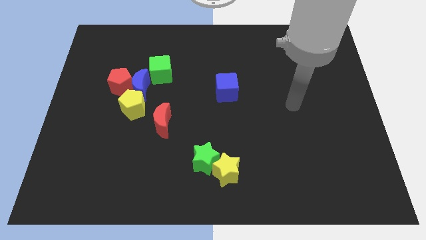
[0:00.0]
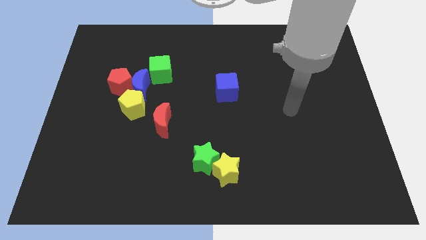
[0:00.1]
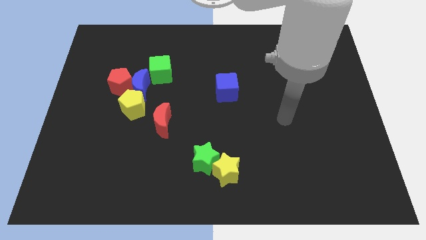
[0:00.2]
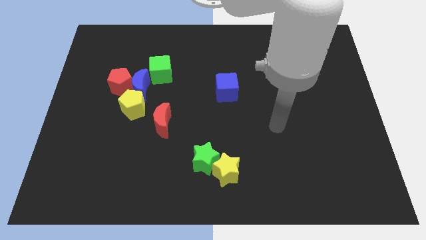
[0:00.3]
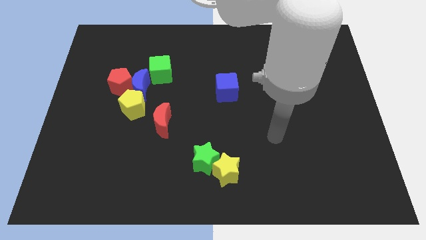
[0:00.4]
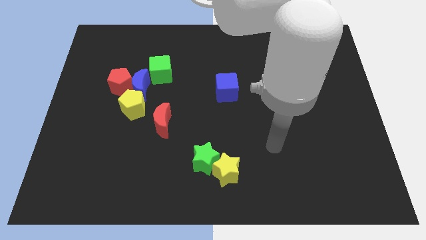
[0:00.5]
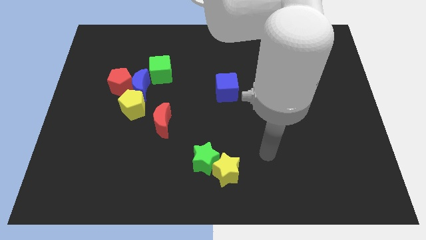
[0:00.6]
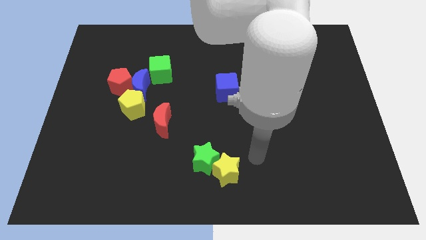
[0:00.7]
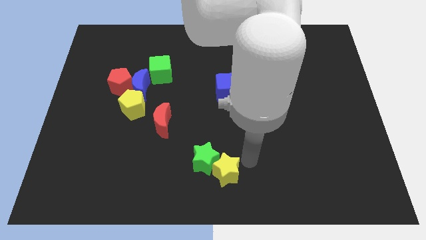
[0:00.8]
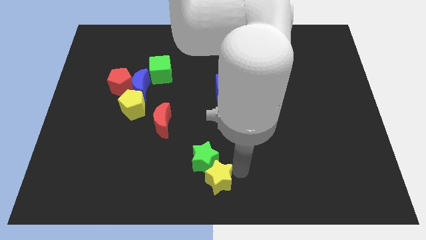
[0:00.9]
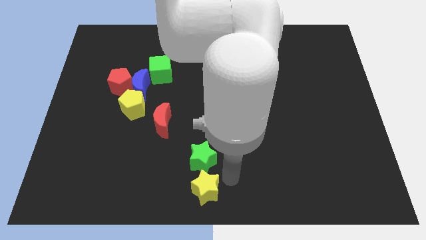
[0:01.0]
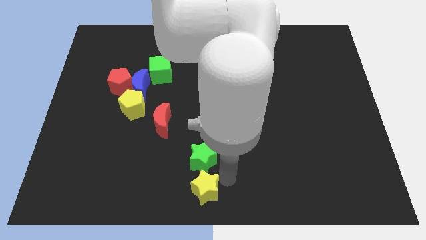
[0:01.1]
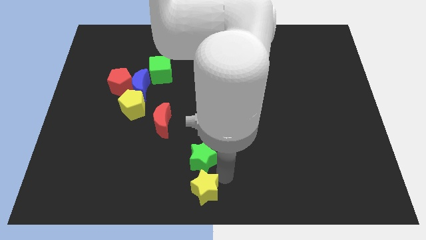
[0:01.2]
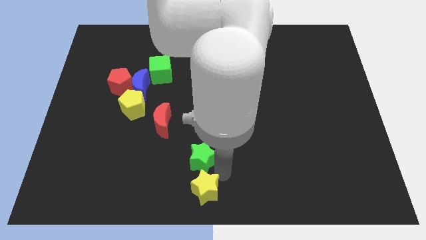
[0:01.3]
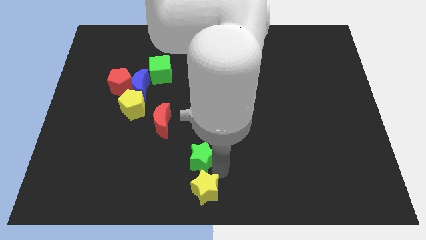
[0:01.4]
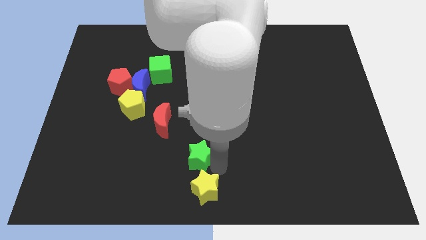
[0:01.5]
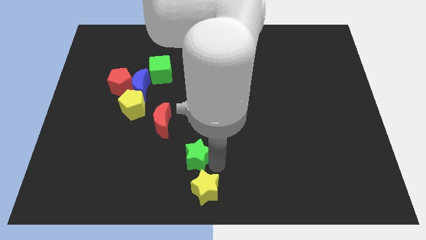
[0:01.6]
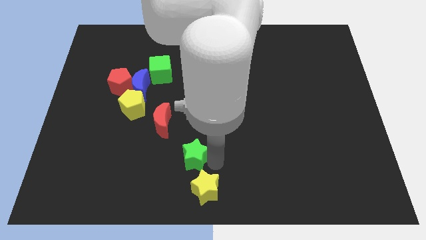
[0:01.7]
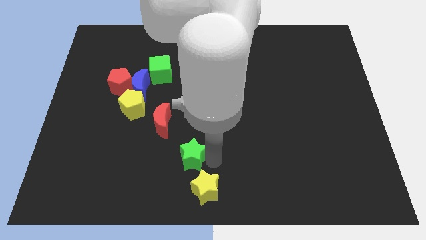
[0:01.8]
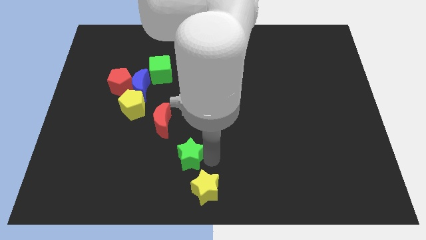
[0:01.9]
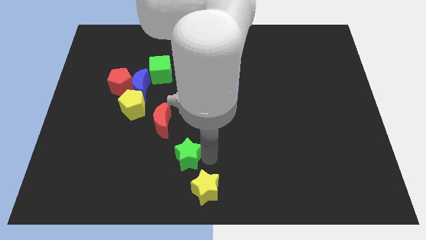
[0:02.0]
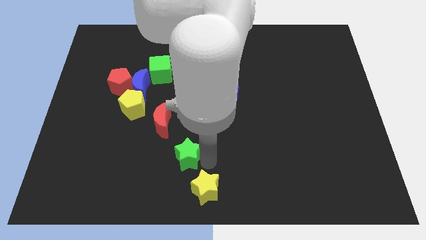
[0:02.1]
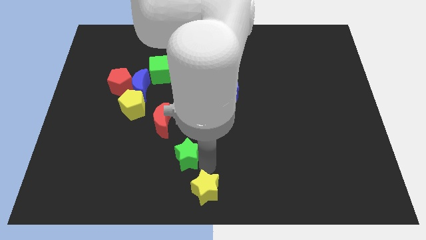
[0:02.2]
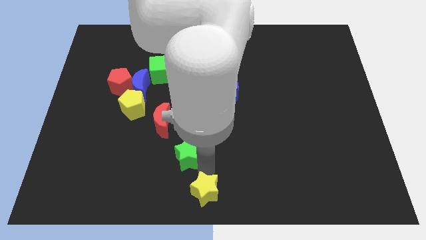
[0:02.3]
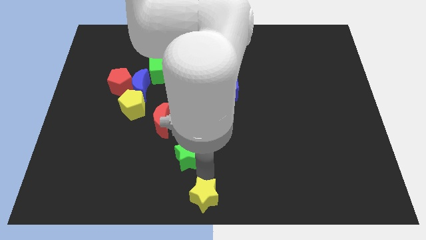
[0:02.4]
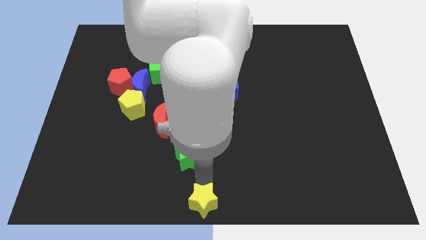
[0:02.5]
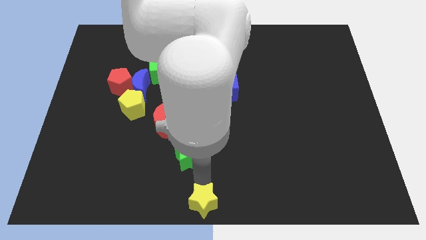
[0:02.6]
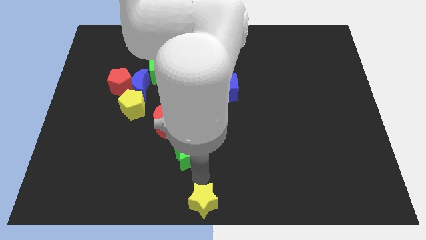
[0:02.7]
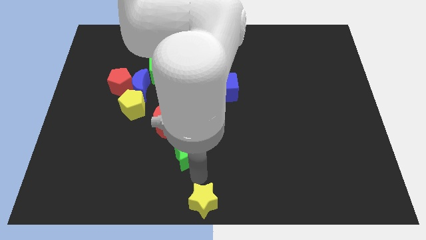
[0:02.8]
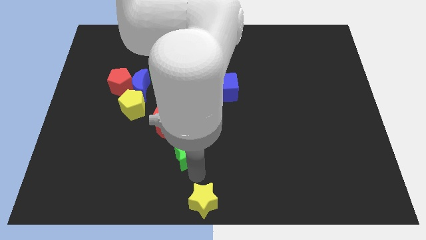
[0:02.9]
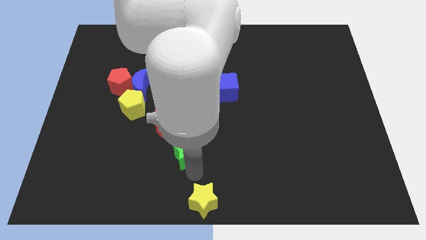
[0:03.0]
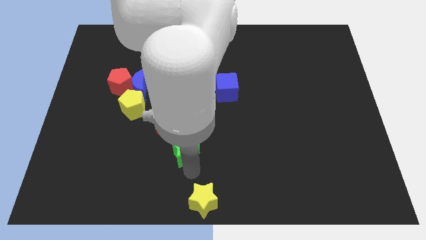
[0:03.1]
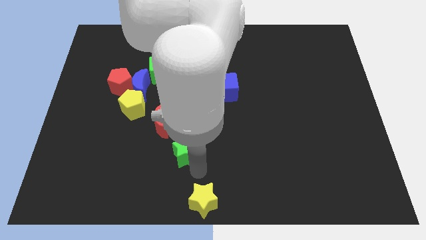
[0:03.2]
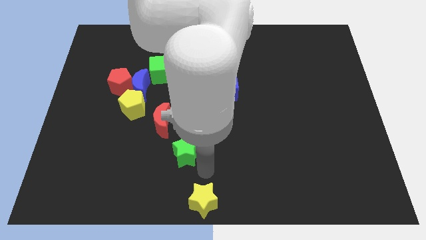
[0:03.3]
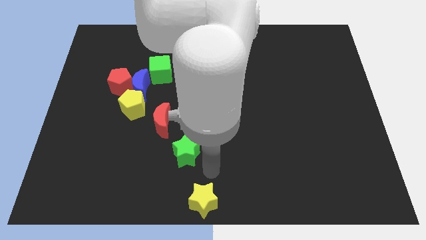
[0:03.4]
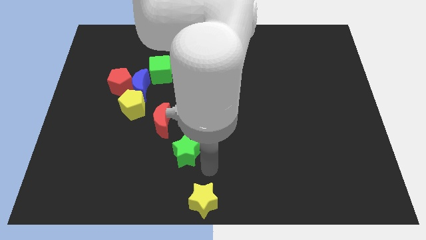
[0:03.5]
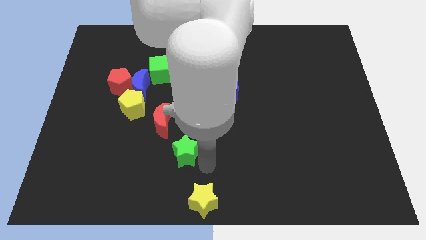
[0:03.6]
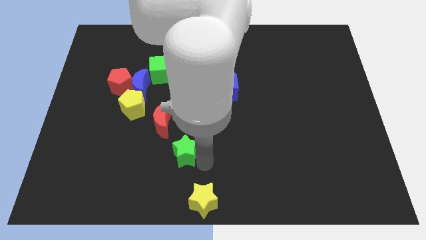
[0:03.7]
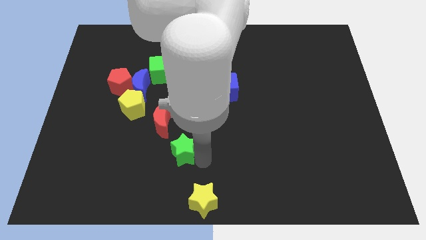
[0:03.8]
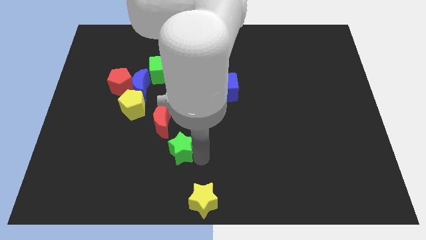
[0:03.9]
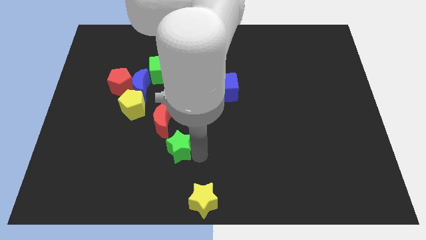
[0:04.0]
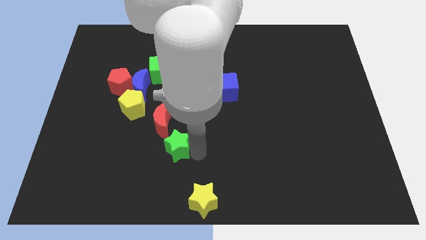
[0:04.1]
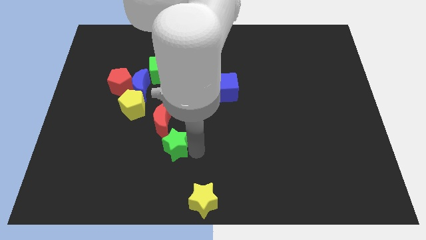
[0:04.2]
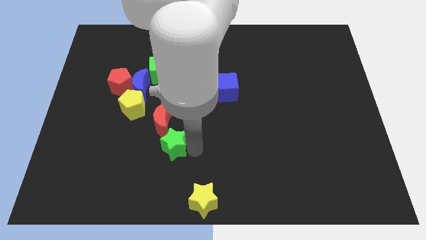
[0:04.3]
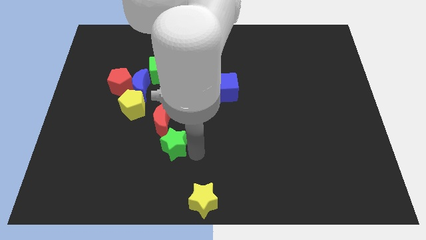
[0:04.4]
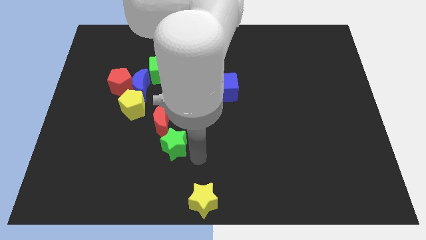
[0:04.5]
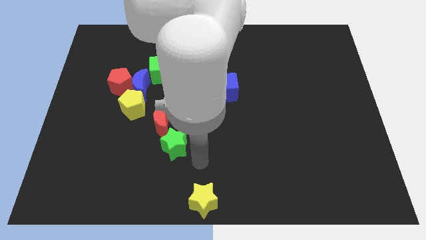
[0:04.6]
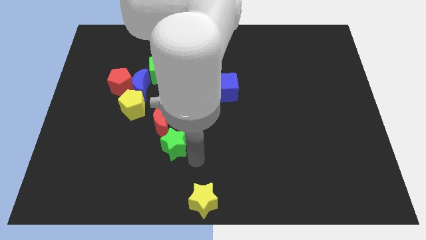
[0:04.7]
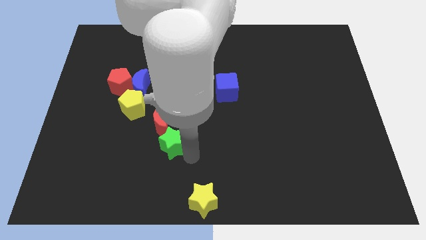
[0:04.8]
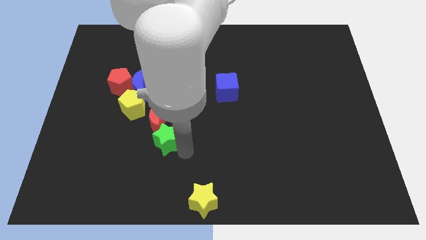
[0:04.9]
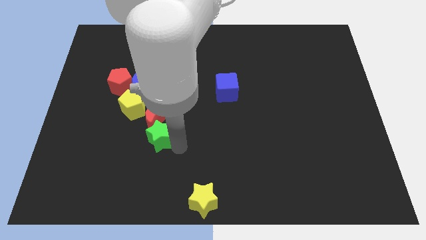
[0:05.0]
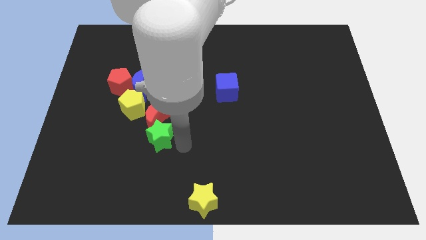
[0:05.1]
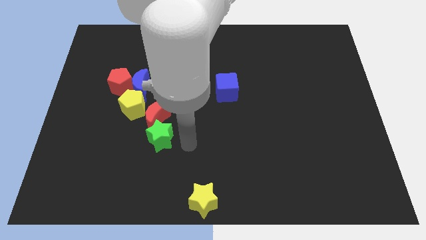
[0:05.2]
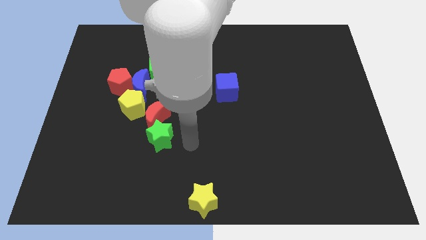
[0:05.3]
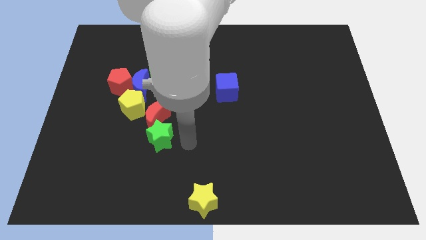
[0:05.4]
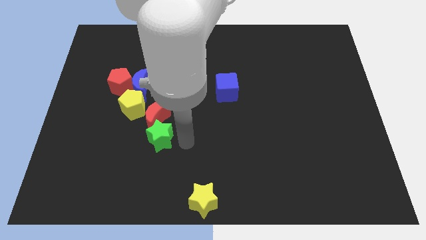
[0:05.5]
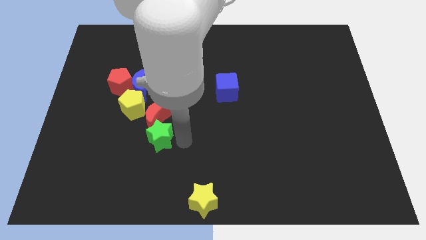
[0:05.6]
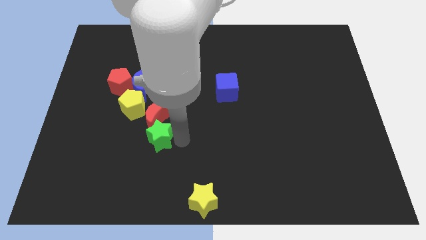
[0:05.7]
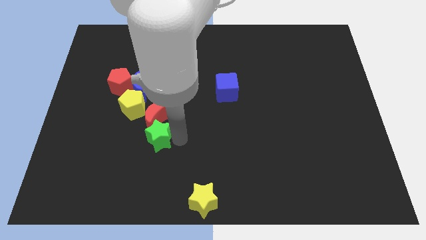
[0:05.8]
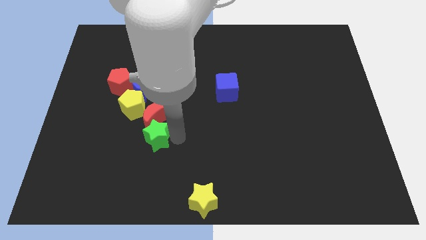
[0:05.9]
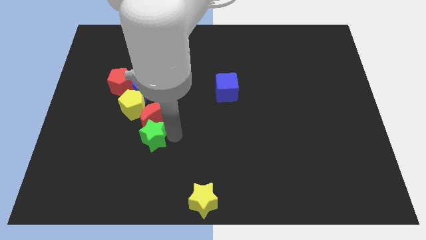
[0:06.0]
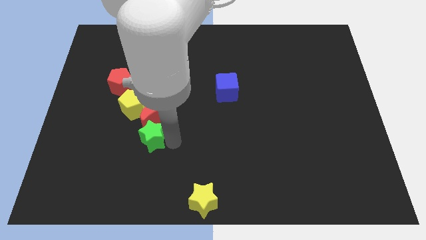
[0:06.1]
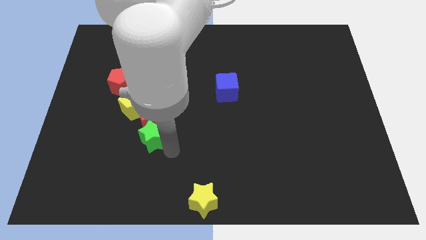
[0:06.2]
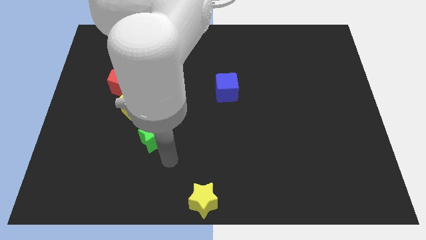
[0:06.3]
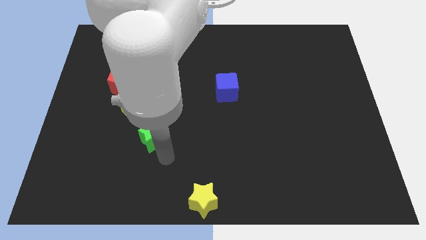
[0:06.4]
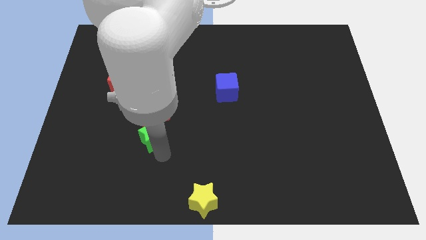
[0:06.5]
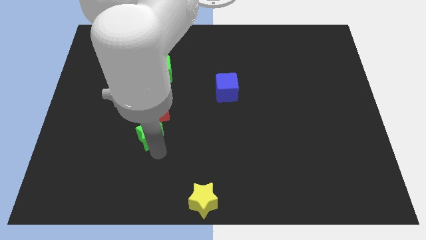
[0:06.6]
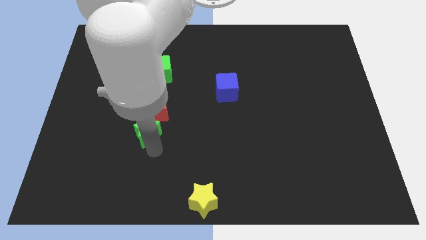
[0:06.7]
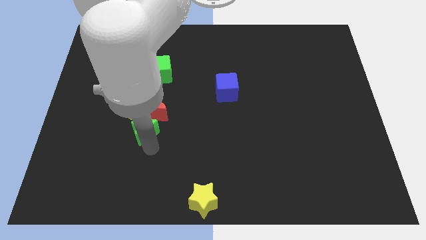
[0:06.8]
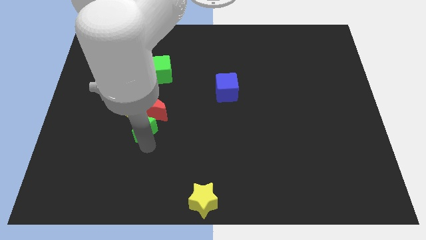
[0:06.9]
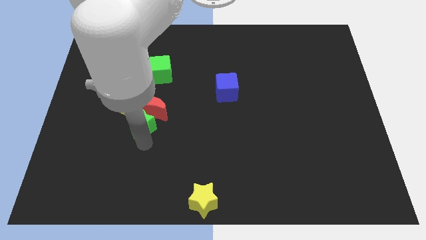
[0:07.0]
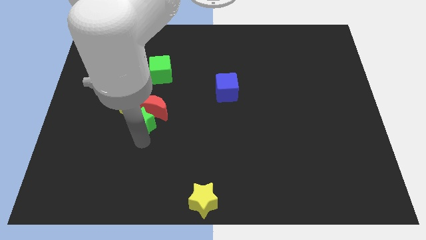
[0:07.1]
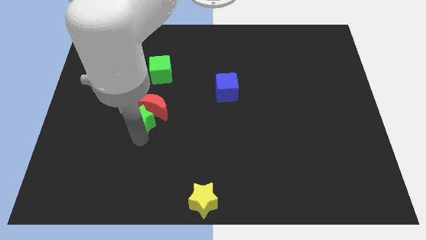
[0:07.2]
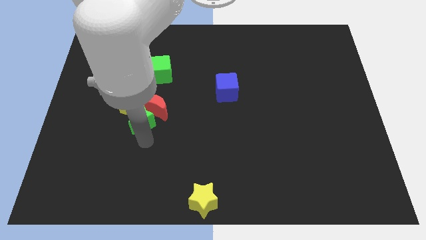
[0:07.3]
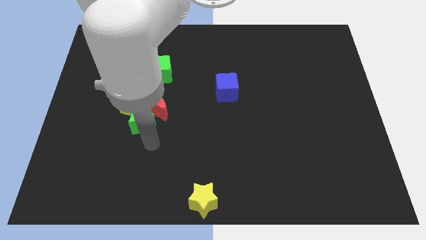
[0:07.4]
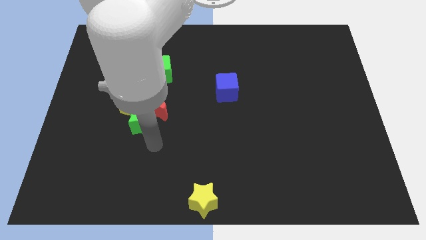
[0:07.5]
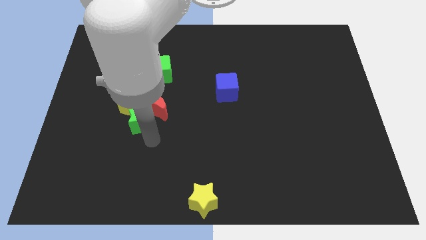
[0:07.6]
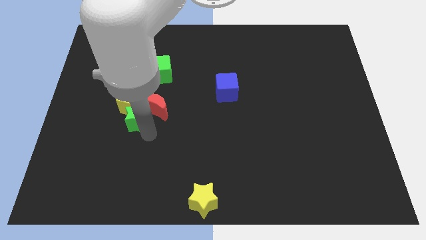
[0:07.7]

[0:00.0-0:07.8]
put the green star towards the yellow pentagon
